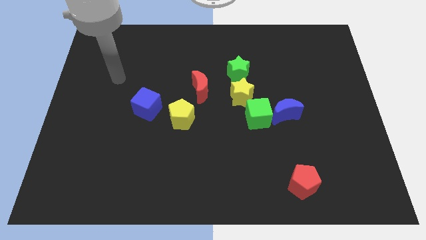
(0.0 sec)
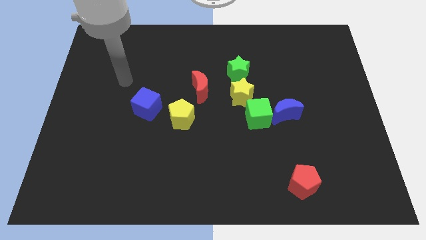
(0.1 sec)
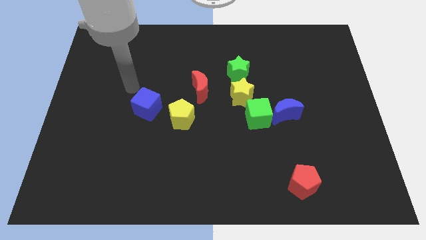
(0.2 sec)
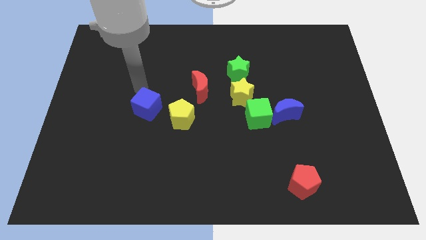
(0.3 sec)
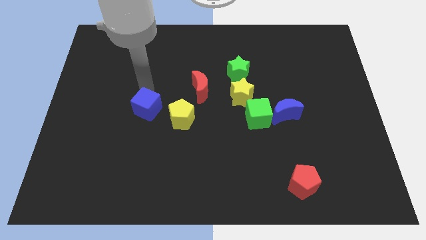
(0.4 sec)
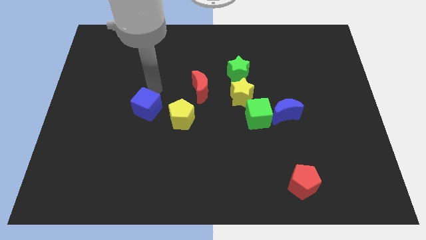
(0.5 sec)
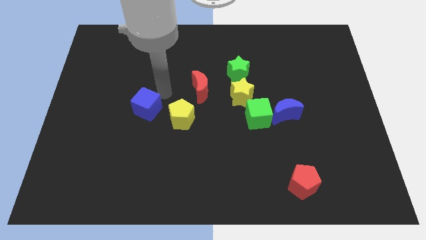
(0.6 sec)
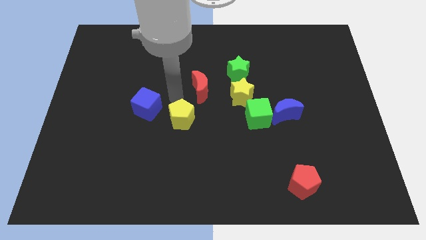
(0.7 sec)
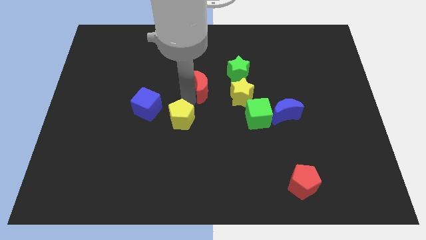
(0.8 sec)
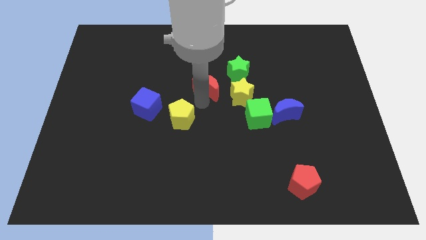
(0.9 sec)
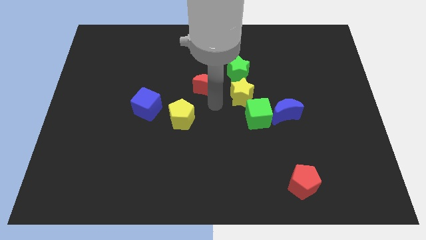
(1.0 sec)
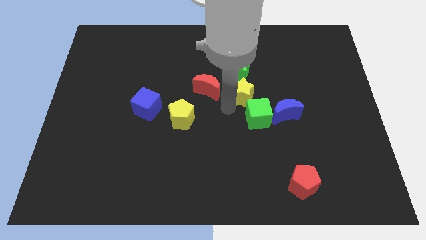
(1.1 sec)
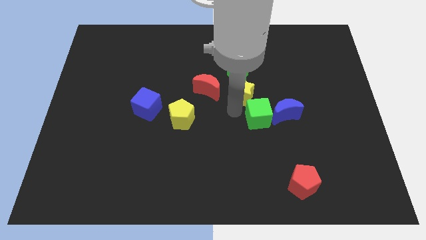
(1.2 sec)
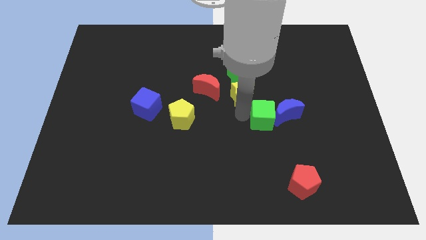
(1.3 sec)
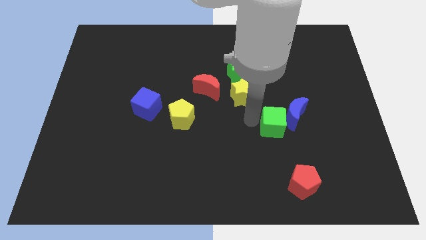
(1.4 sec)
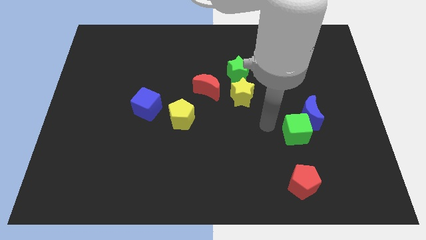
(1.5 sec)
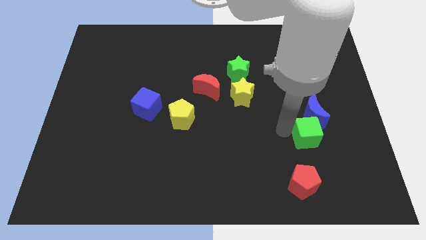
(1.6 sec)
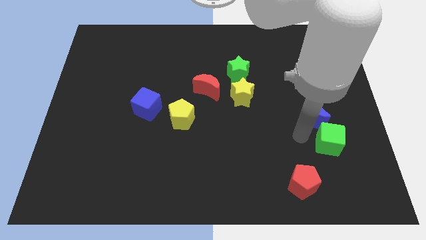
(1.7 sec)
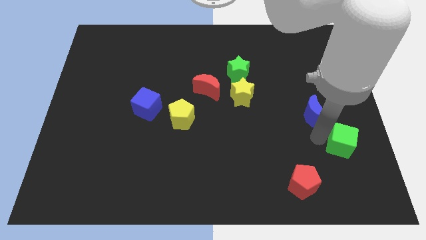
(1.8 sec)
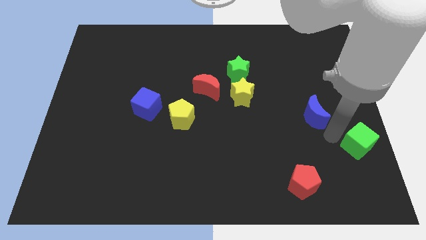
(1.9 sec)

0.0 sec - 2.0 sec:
move the blue moon away from the green cube

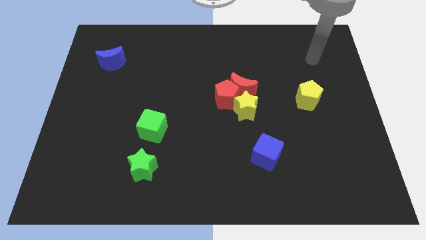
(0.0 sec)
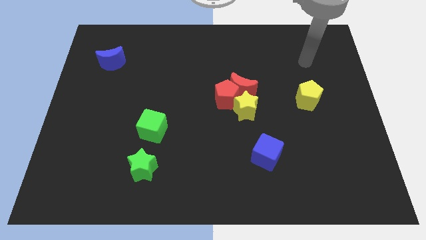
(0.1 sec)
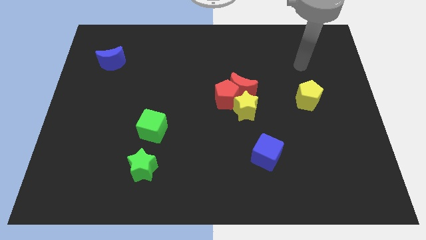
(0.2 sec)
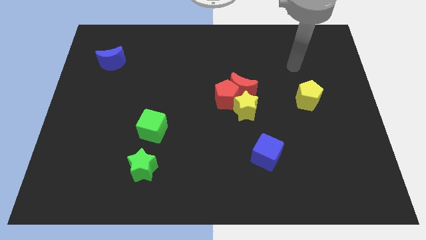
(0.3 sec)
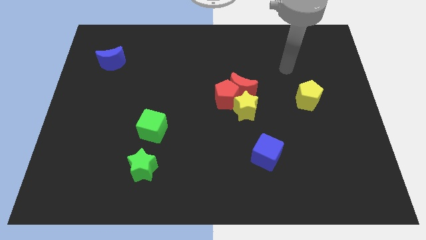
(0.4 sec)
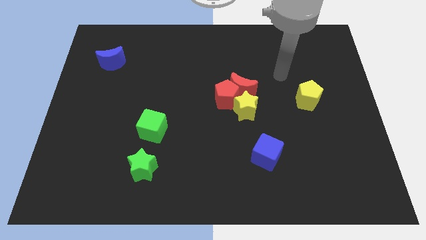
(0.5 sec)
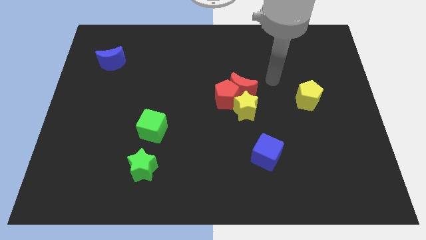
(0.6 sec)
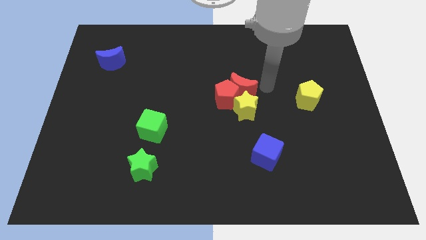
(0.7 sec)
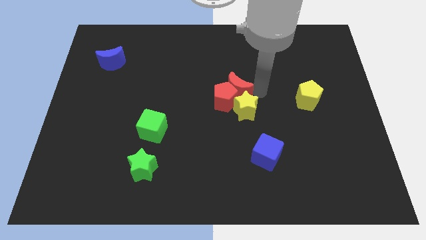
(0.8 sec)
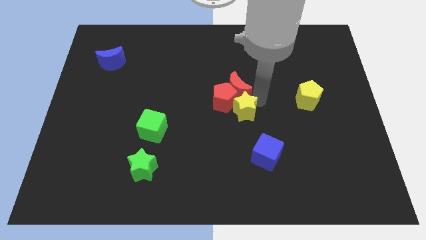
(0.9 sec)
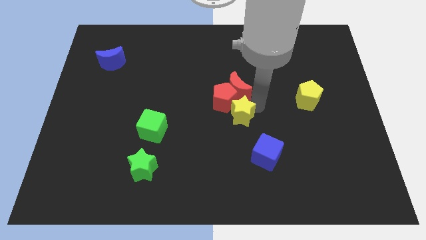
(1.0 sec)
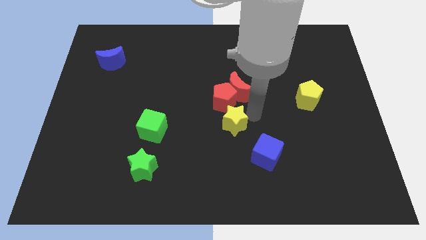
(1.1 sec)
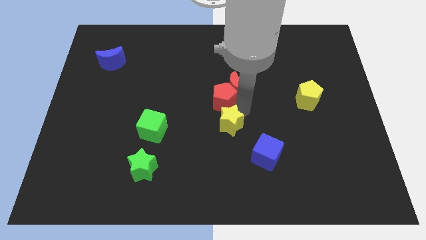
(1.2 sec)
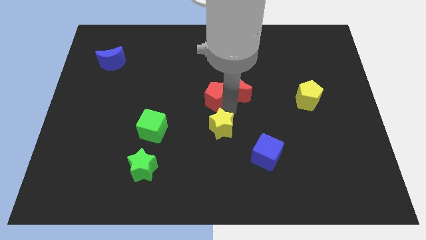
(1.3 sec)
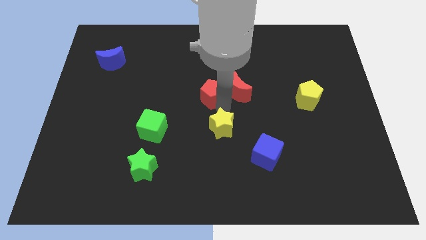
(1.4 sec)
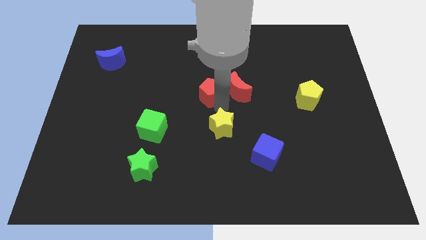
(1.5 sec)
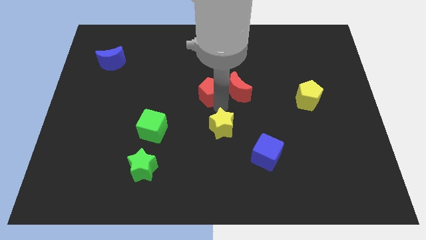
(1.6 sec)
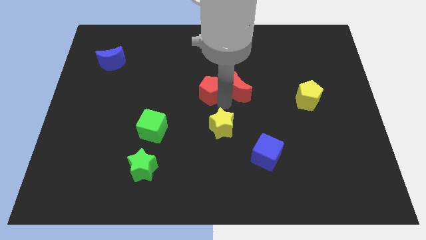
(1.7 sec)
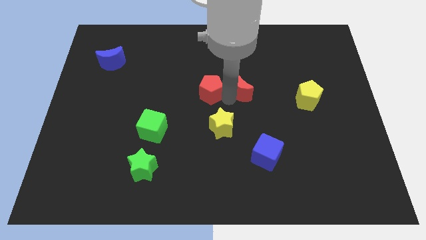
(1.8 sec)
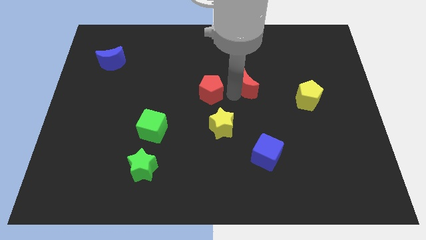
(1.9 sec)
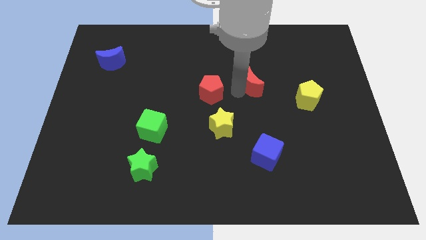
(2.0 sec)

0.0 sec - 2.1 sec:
pull the red moon apart from the red pentagon and yellow star

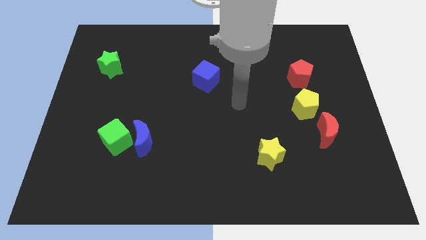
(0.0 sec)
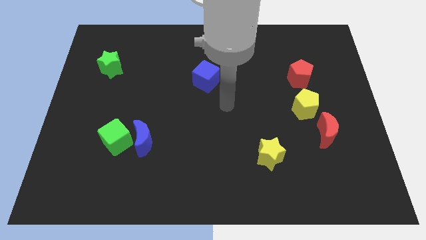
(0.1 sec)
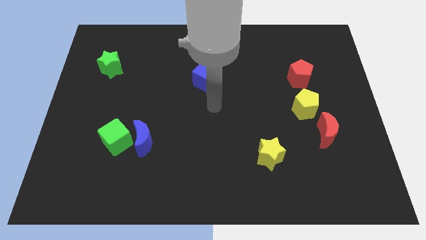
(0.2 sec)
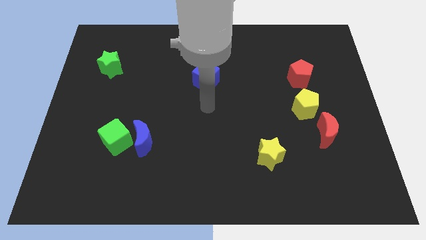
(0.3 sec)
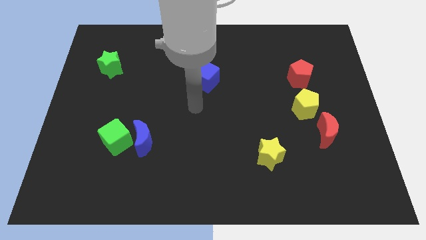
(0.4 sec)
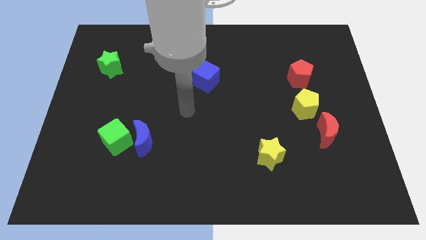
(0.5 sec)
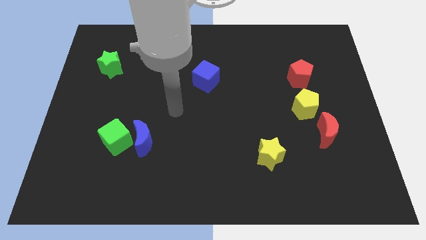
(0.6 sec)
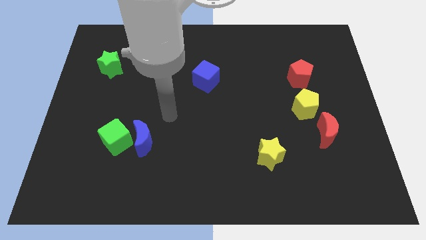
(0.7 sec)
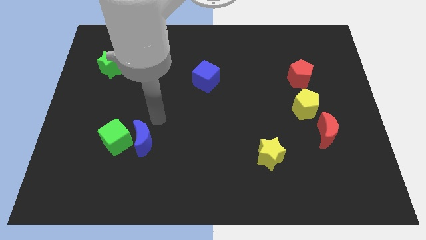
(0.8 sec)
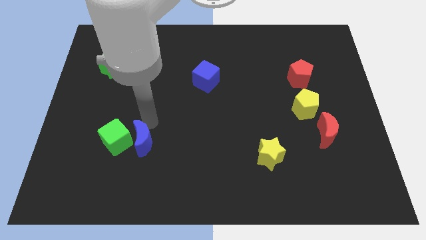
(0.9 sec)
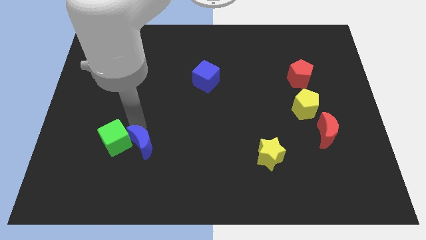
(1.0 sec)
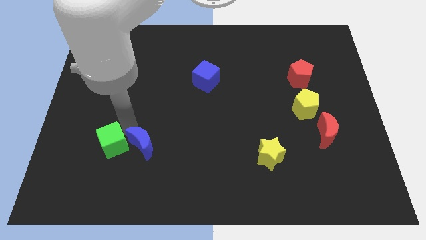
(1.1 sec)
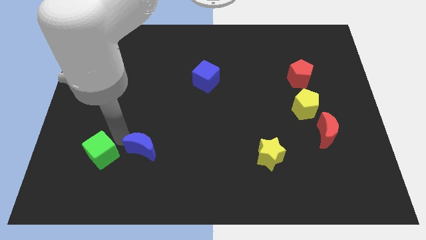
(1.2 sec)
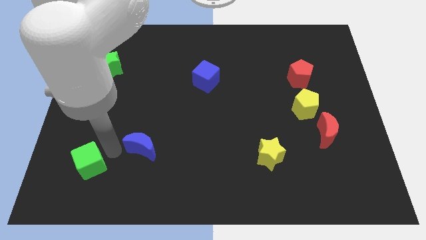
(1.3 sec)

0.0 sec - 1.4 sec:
pull the blue moon apart from the green cube

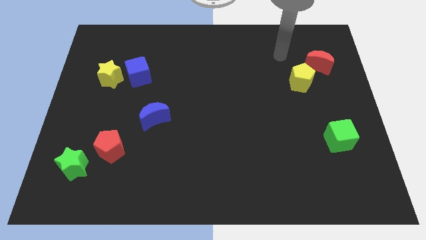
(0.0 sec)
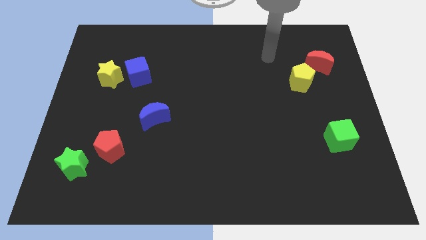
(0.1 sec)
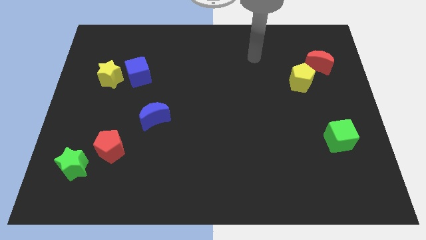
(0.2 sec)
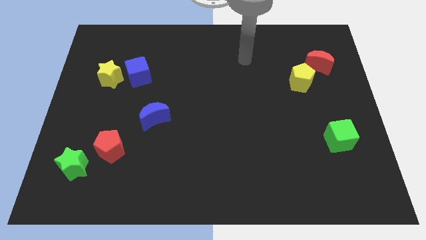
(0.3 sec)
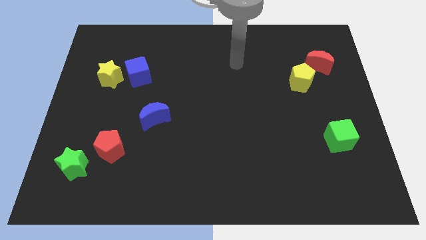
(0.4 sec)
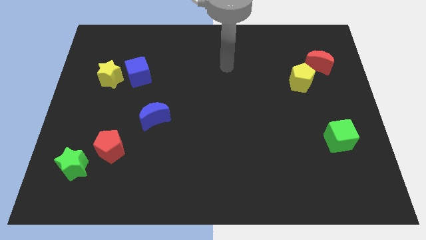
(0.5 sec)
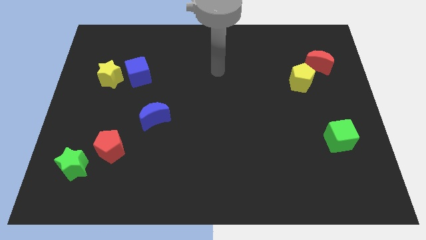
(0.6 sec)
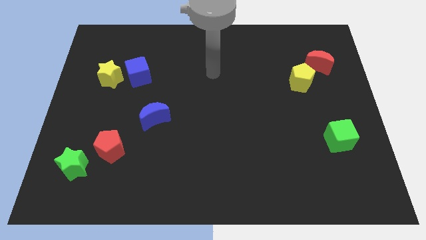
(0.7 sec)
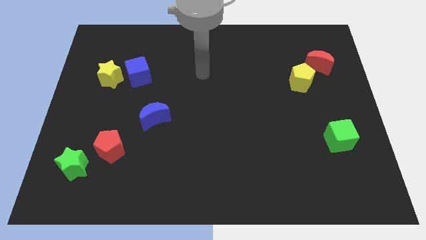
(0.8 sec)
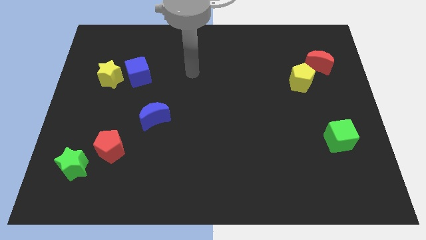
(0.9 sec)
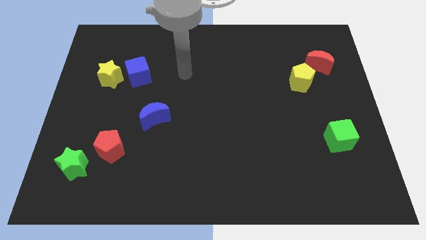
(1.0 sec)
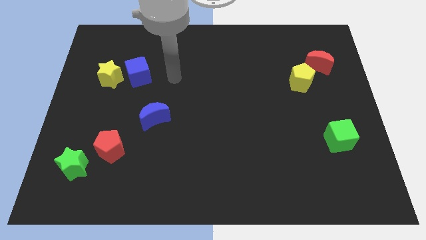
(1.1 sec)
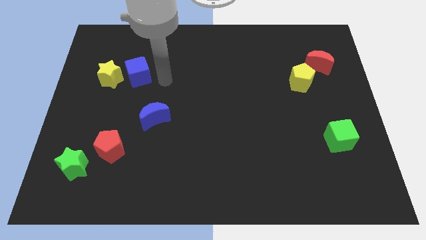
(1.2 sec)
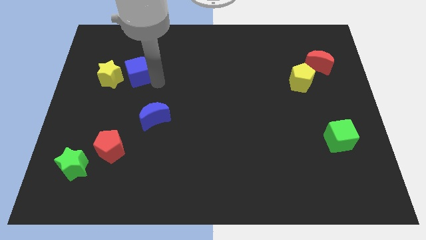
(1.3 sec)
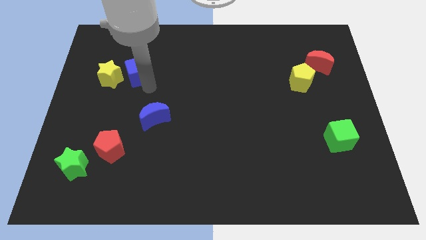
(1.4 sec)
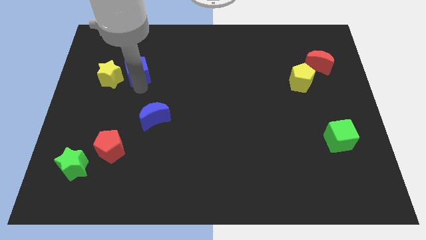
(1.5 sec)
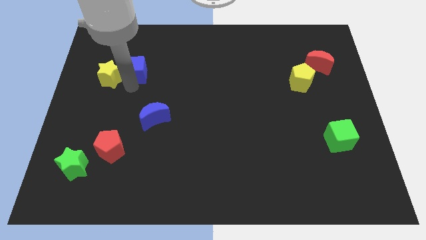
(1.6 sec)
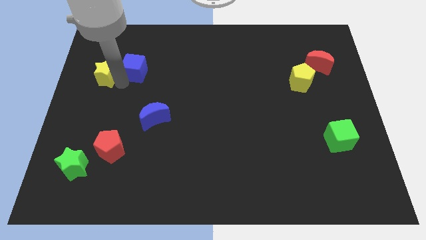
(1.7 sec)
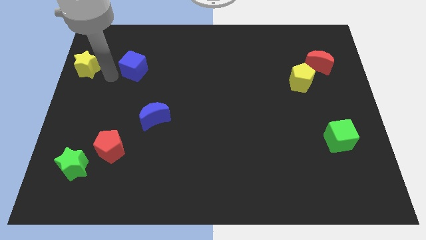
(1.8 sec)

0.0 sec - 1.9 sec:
separate the blue cube from the yellow star

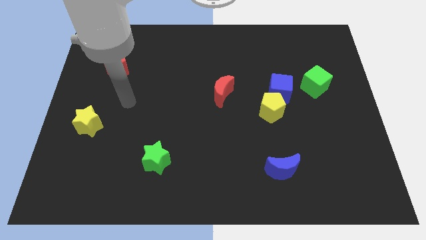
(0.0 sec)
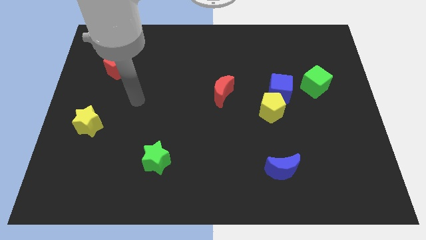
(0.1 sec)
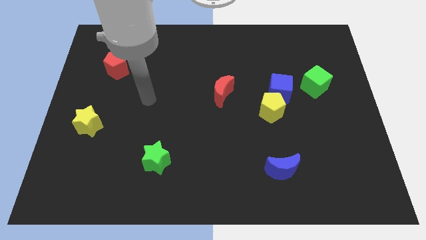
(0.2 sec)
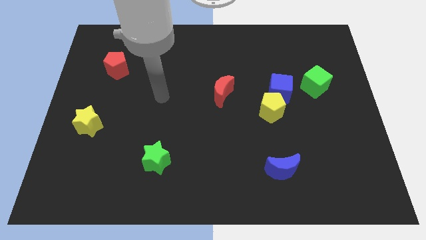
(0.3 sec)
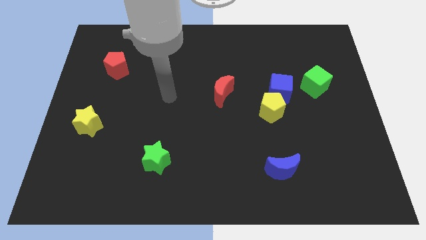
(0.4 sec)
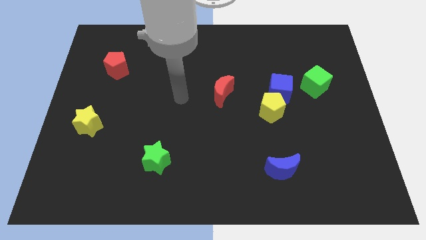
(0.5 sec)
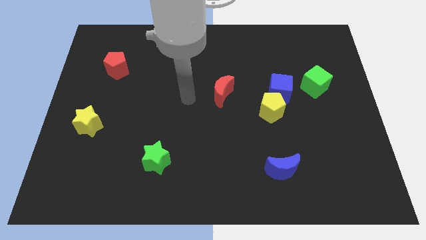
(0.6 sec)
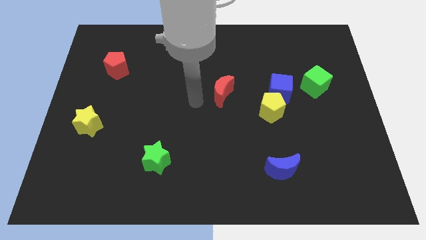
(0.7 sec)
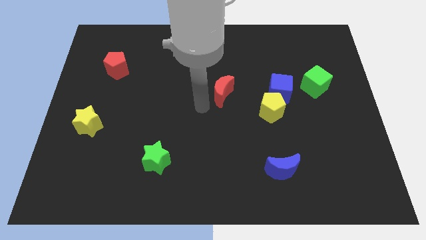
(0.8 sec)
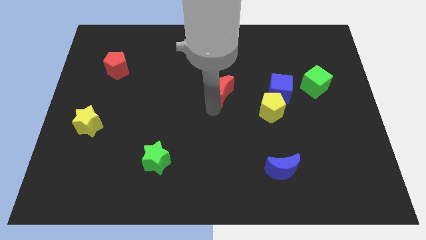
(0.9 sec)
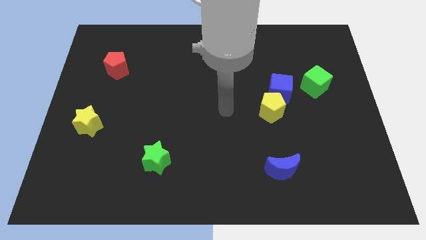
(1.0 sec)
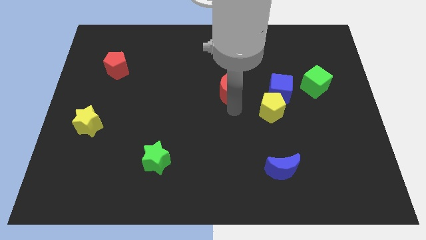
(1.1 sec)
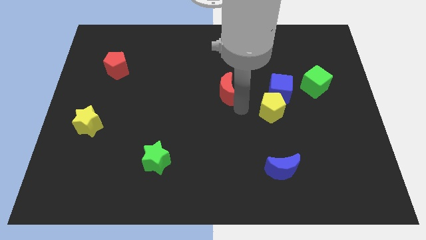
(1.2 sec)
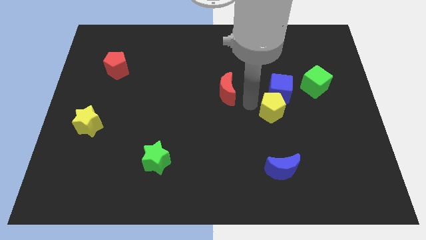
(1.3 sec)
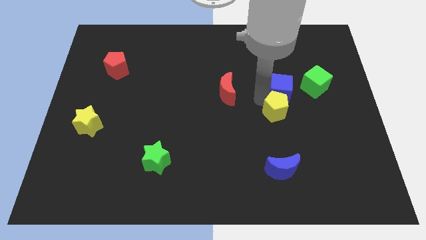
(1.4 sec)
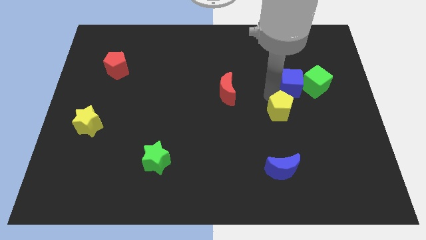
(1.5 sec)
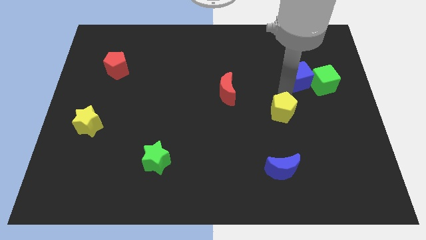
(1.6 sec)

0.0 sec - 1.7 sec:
move the yellow pentagon away from the blue cube
